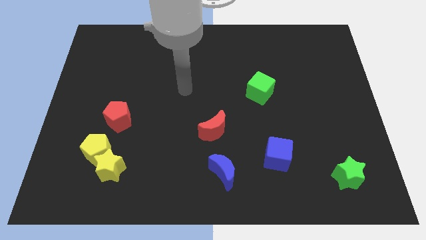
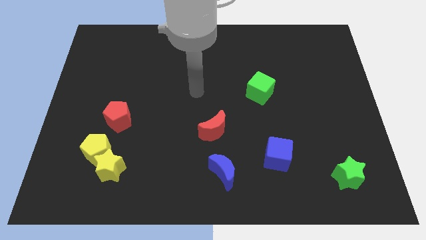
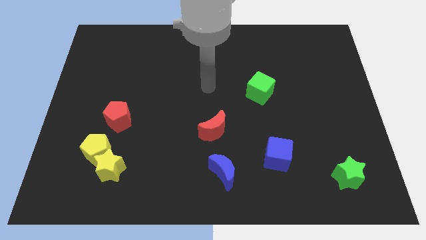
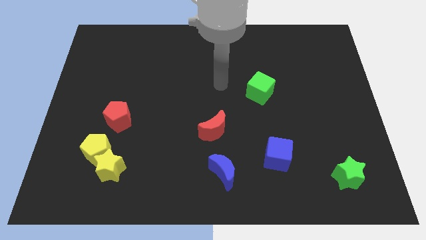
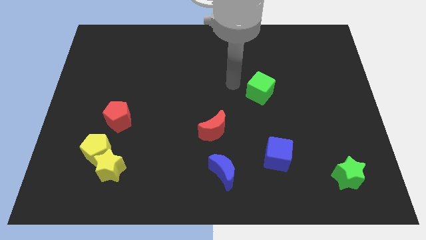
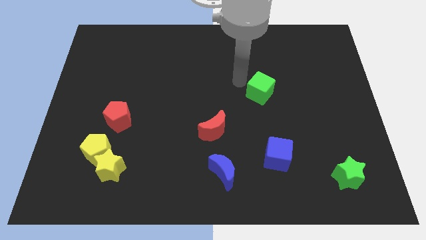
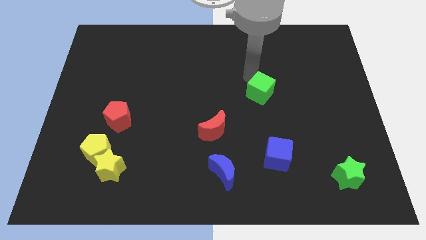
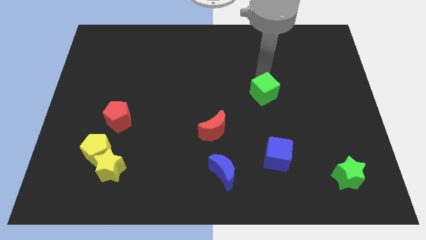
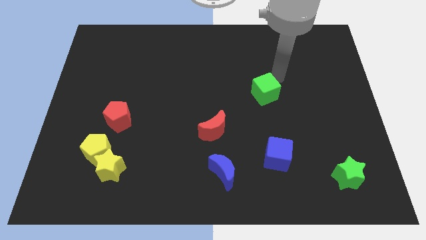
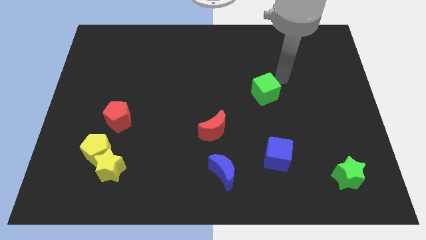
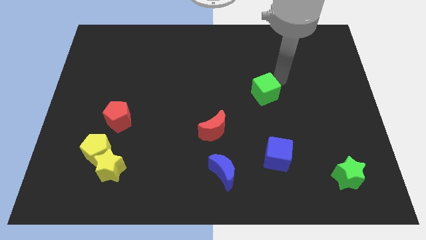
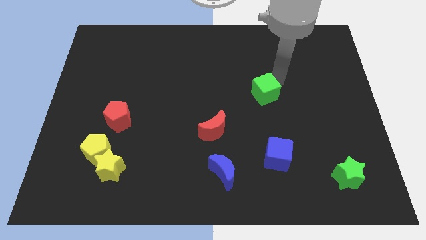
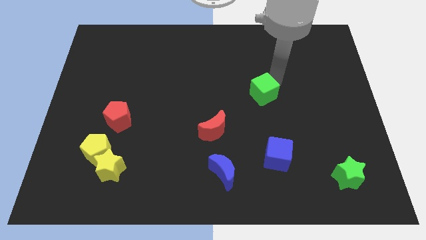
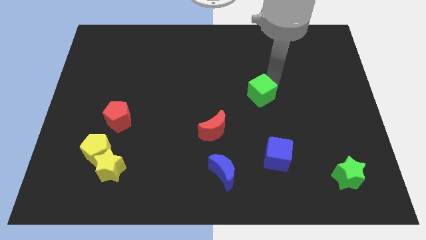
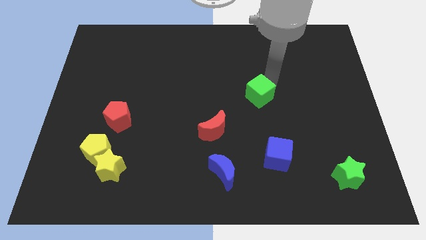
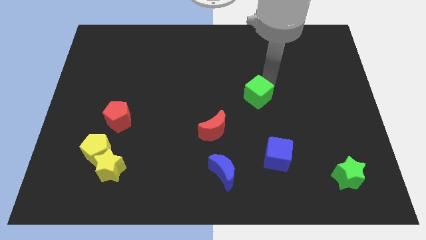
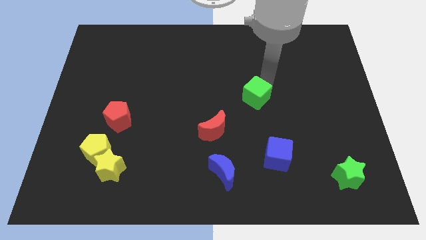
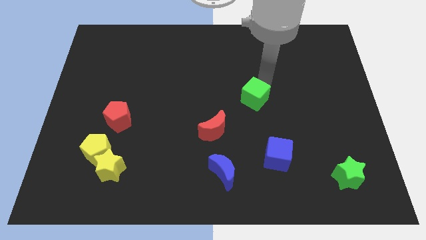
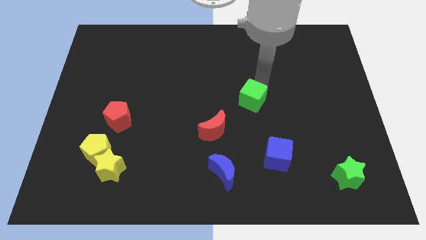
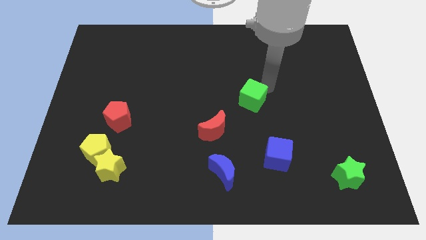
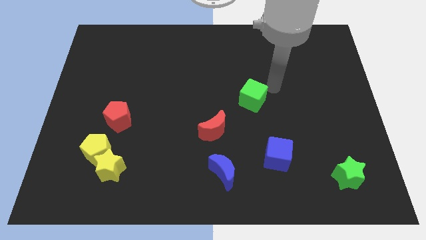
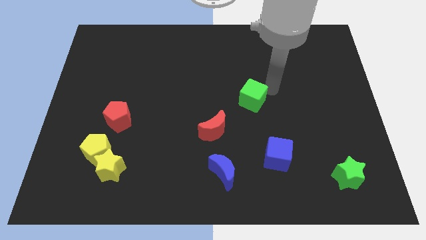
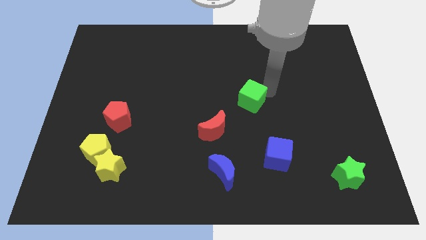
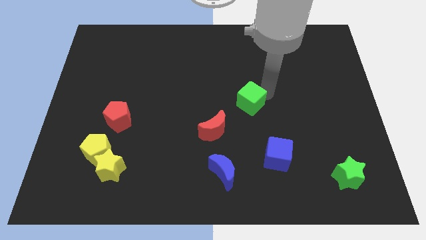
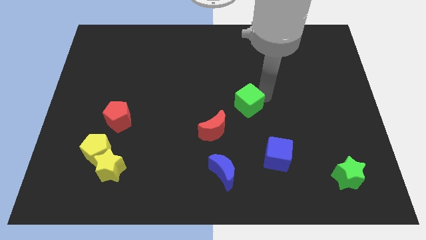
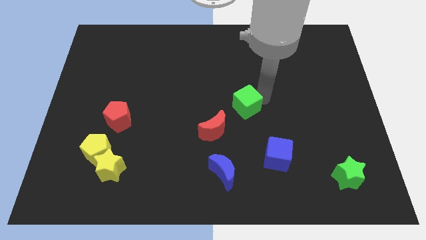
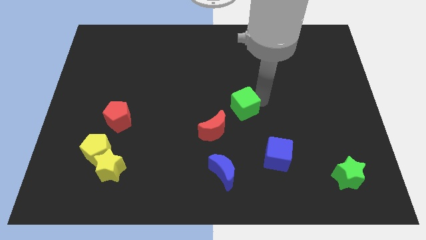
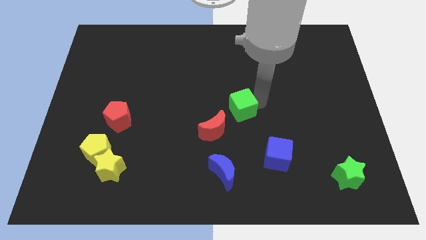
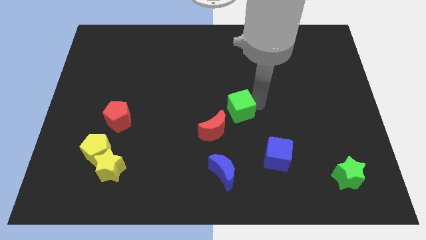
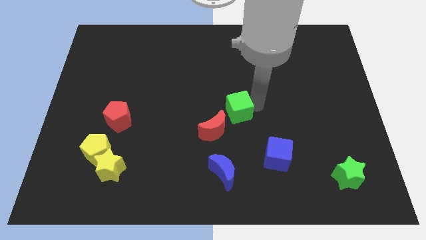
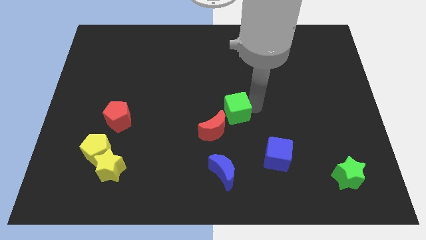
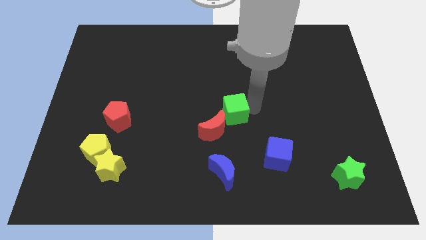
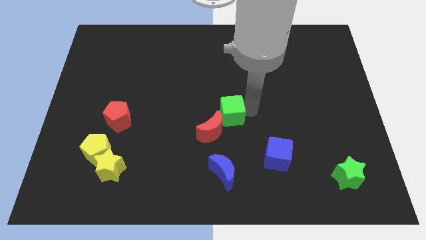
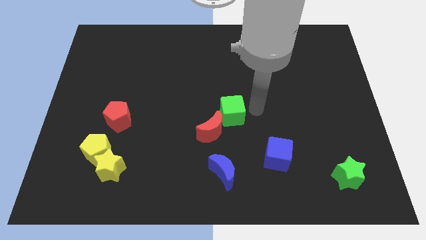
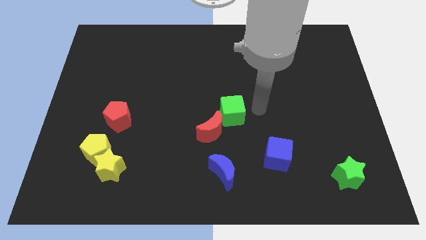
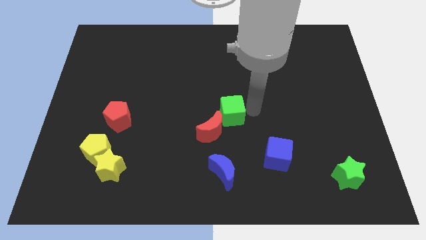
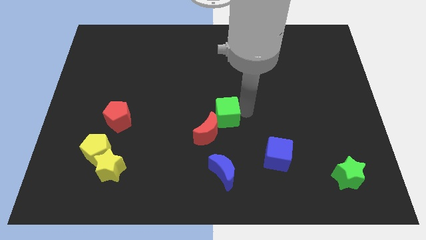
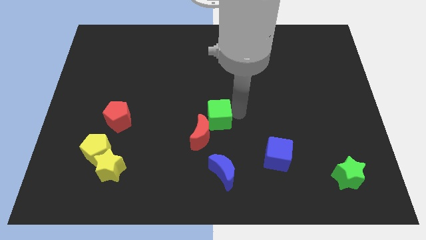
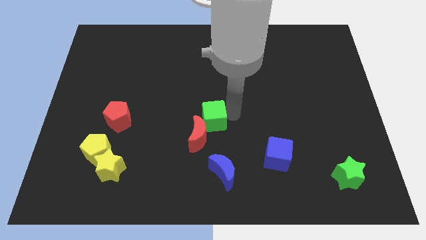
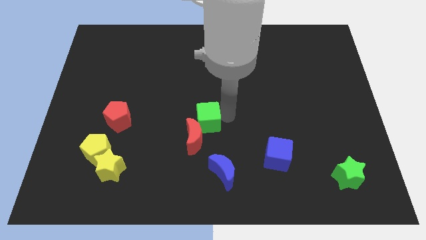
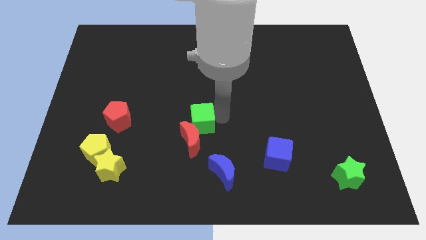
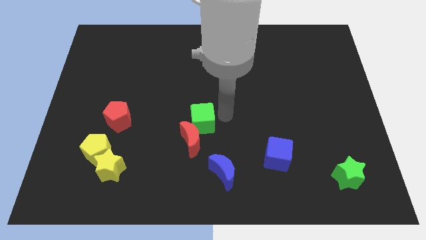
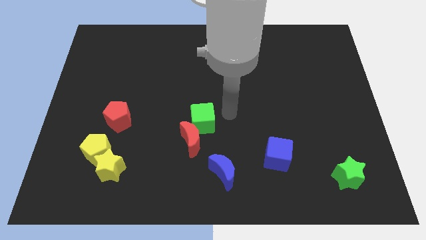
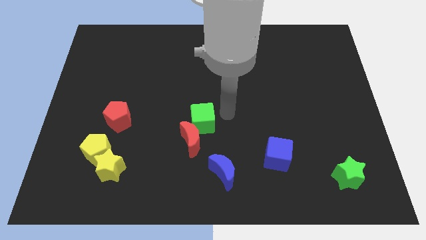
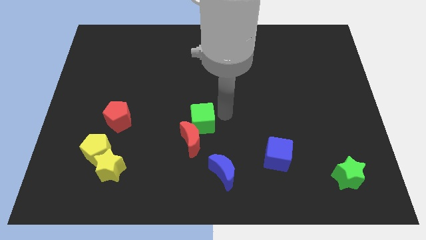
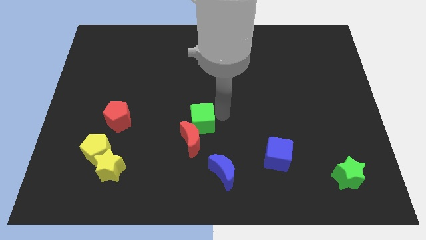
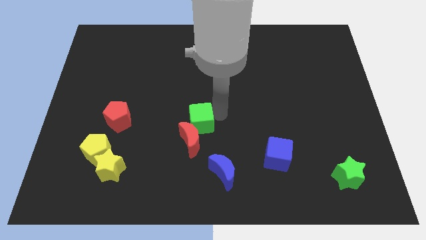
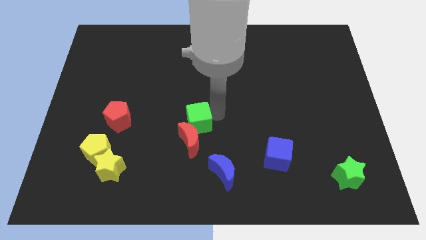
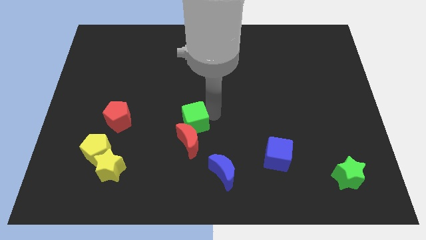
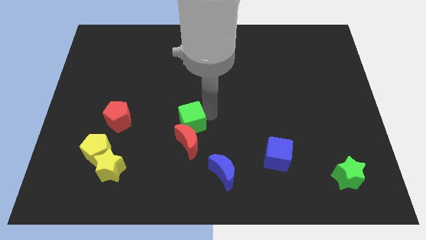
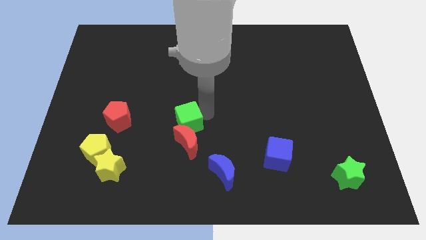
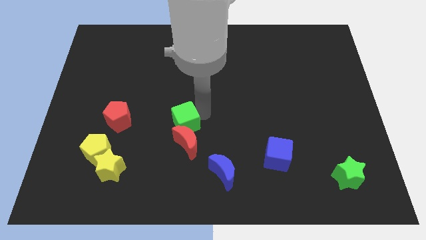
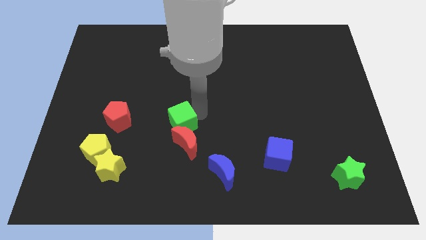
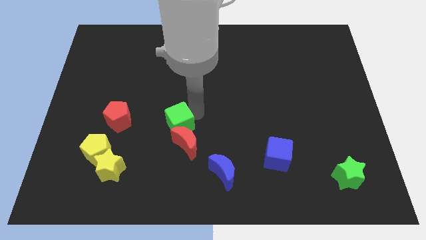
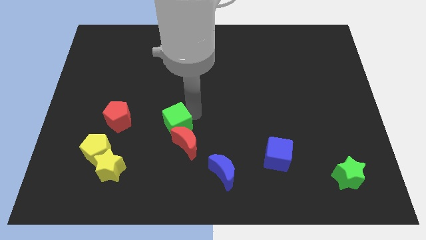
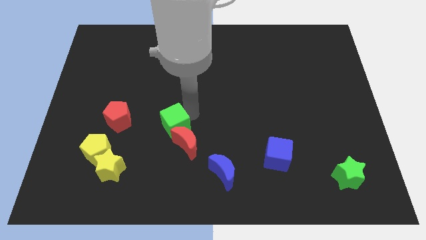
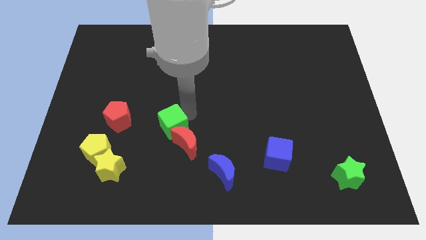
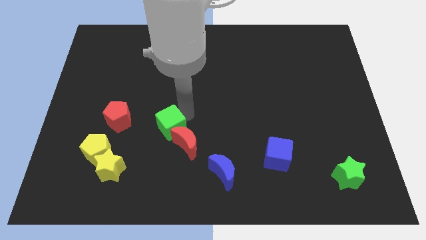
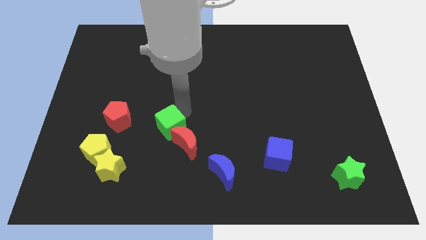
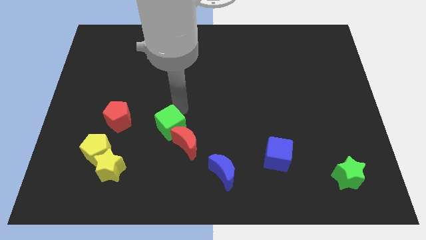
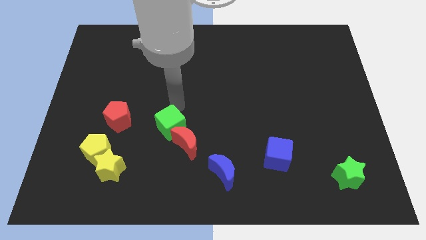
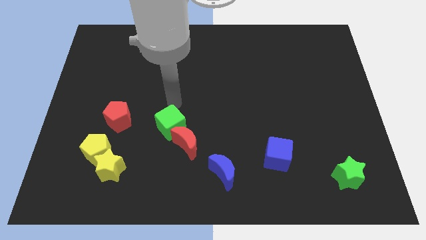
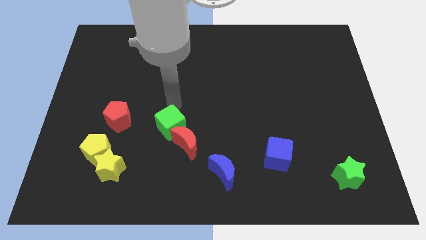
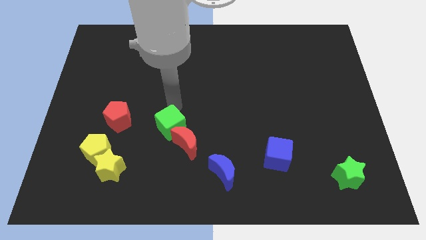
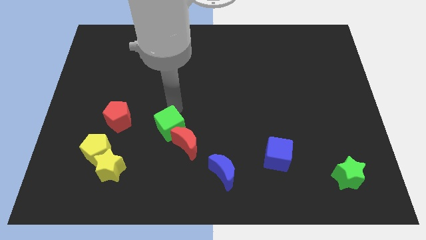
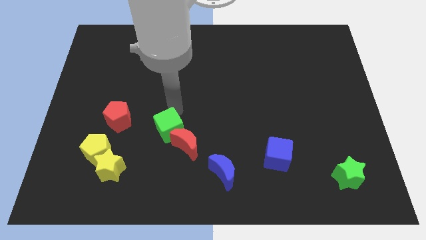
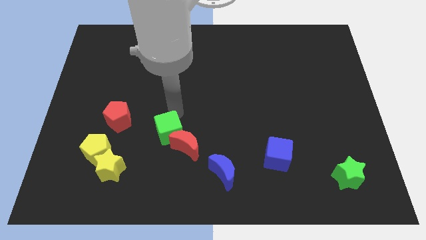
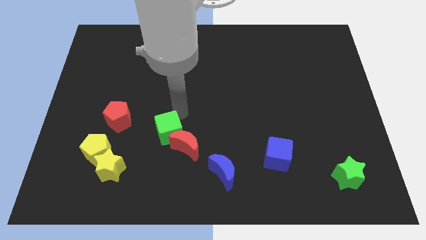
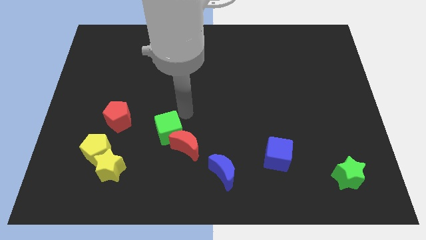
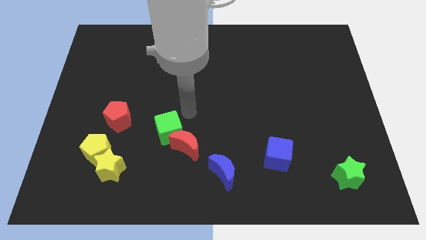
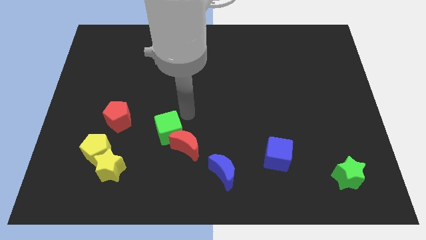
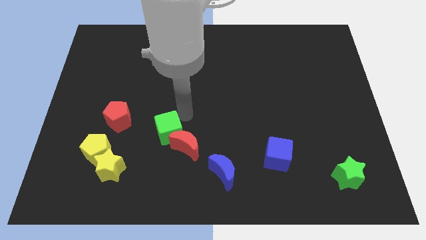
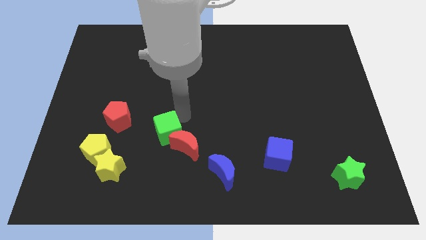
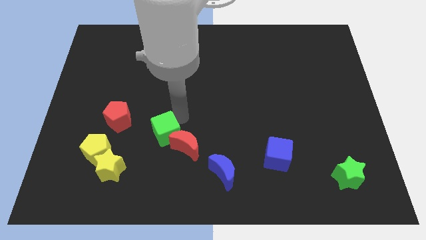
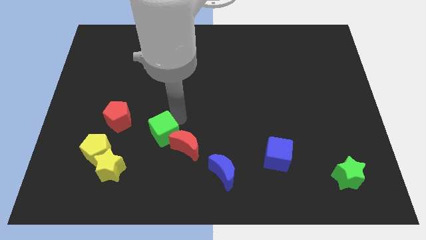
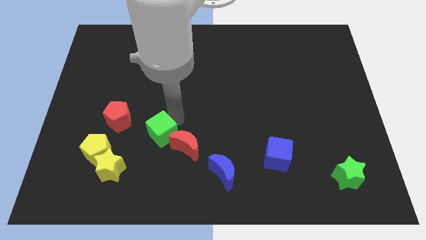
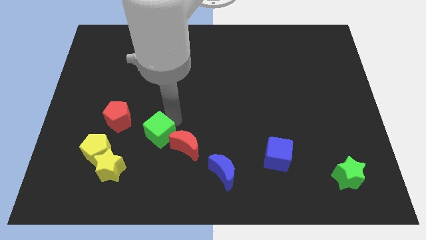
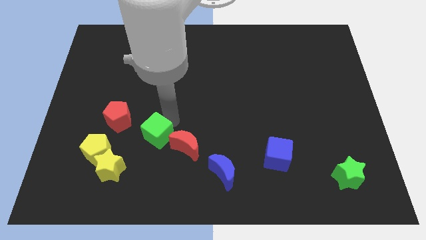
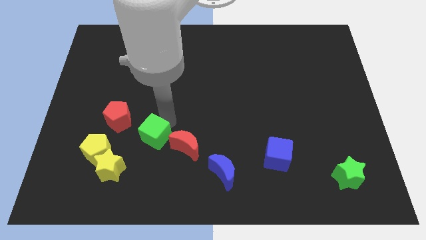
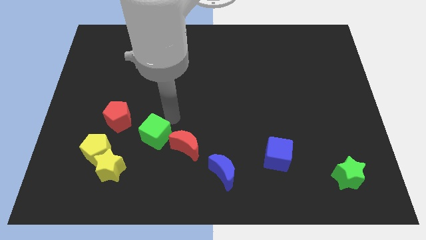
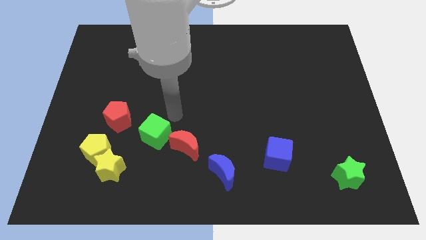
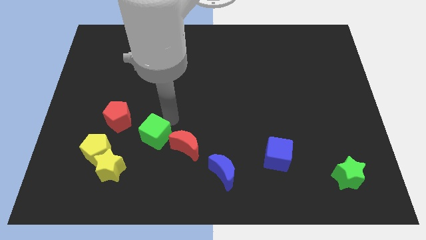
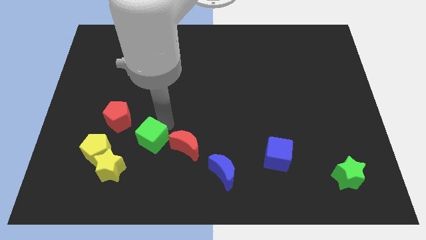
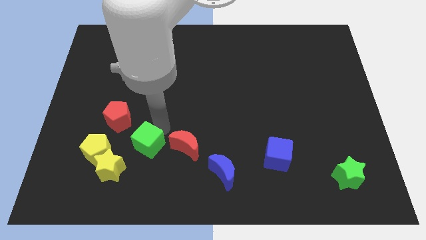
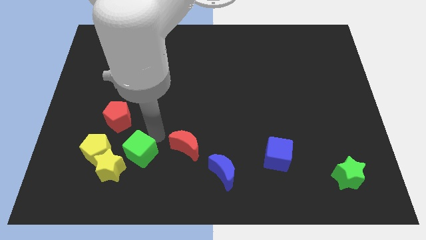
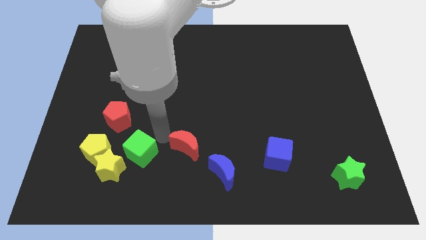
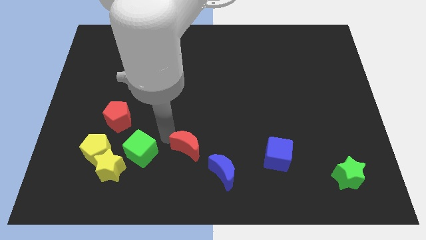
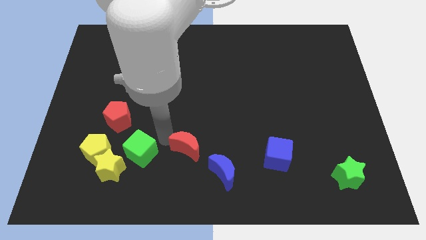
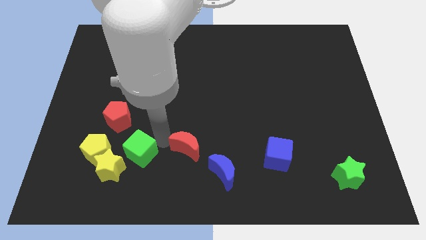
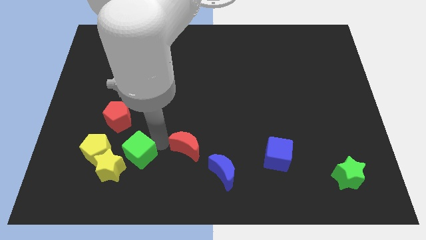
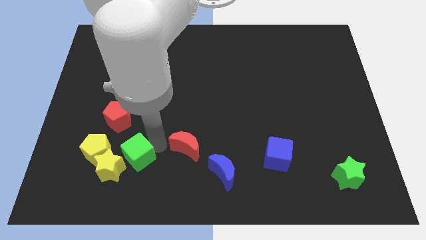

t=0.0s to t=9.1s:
slide the green cube to the yellow star
